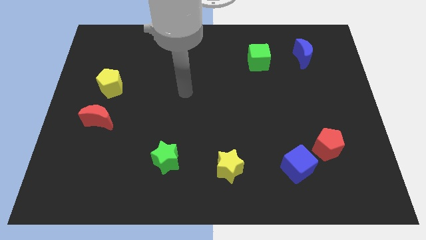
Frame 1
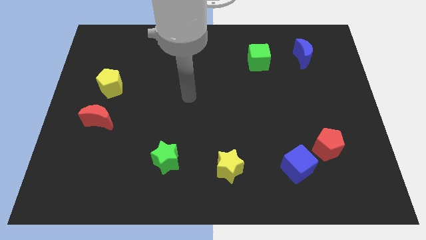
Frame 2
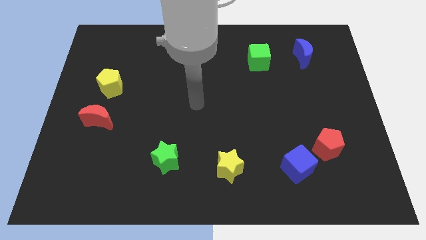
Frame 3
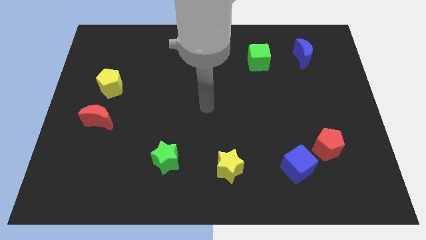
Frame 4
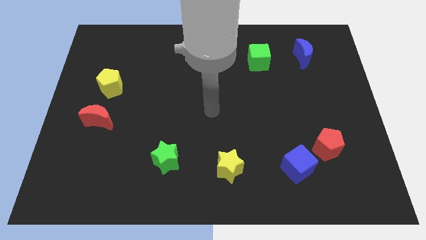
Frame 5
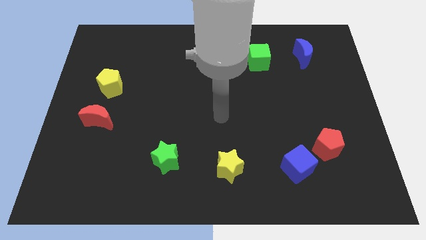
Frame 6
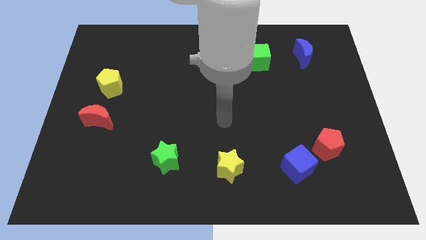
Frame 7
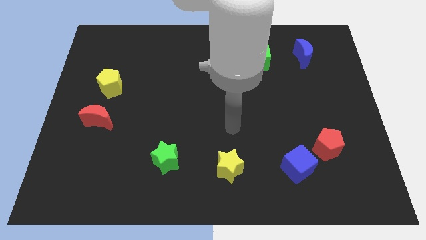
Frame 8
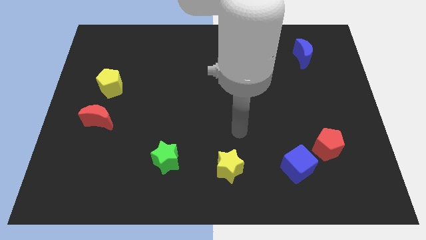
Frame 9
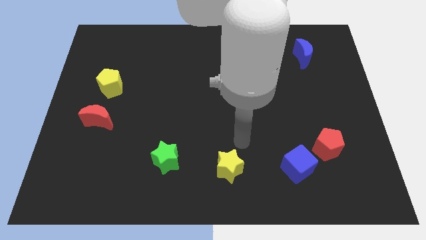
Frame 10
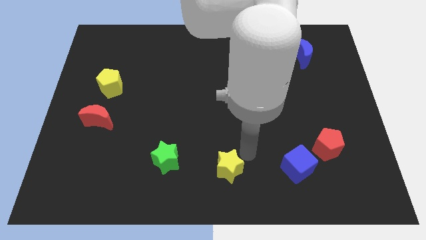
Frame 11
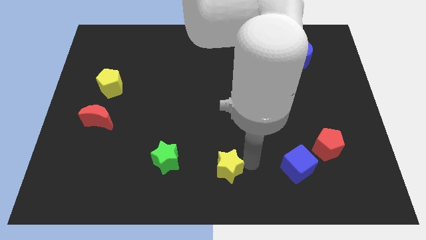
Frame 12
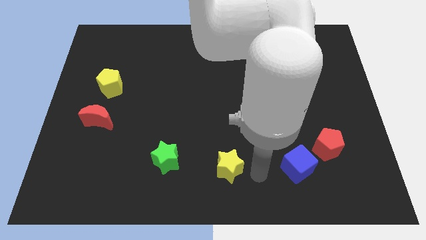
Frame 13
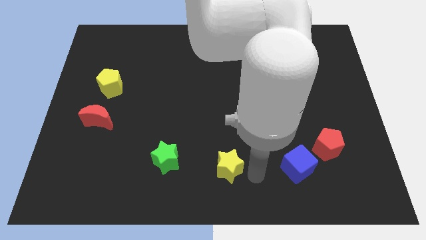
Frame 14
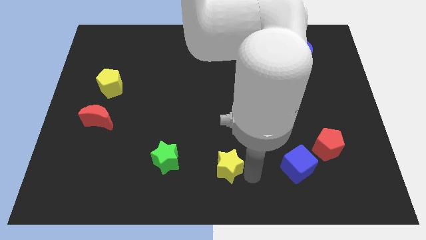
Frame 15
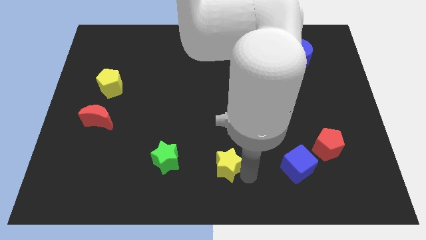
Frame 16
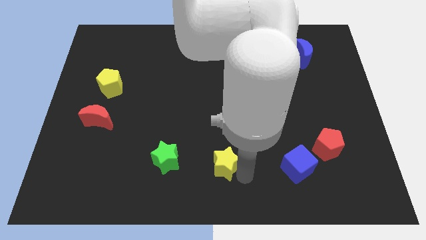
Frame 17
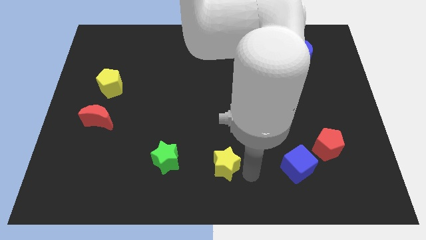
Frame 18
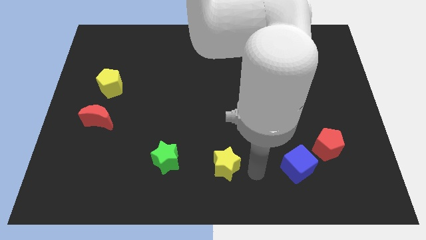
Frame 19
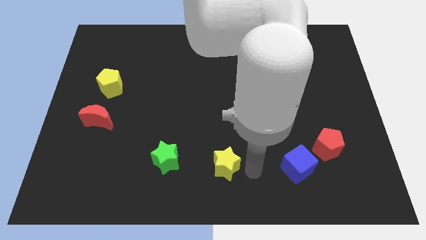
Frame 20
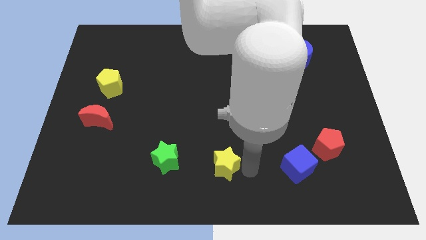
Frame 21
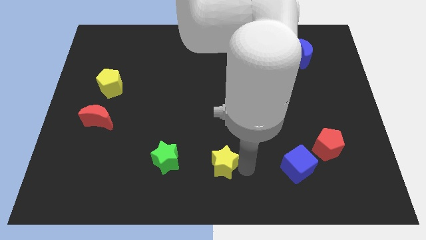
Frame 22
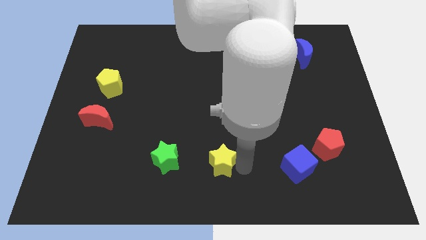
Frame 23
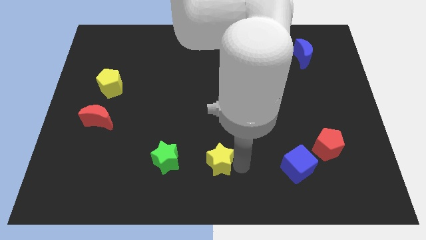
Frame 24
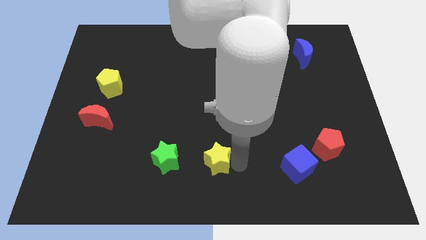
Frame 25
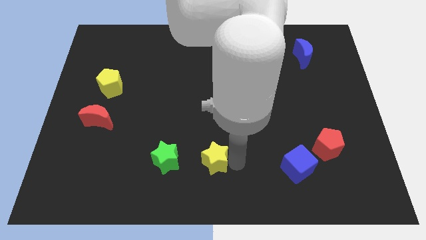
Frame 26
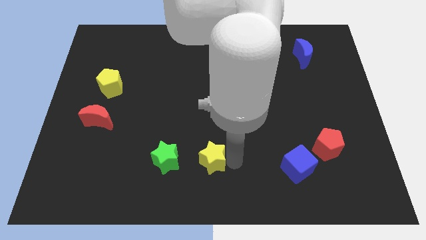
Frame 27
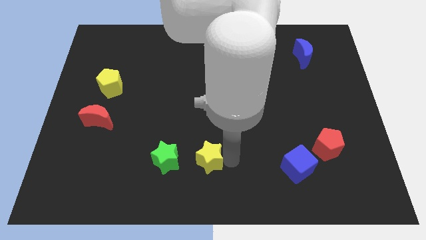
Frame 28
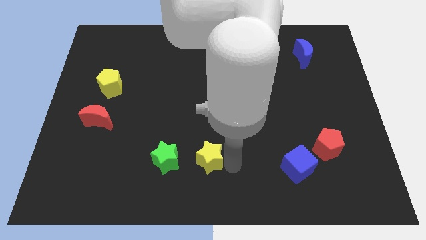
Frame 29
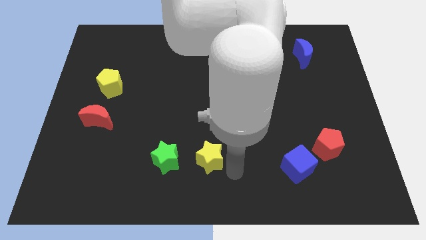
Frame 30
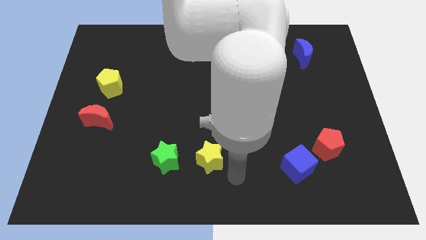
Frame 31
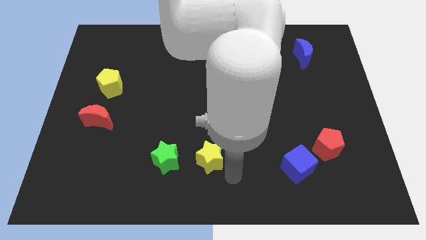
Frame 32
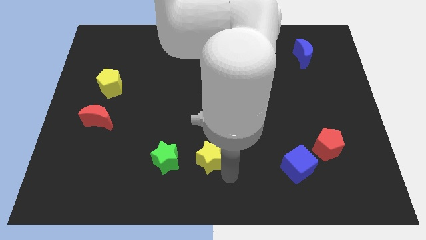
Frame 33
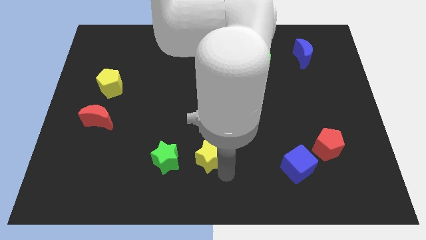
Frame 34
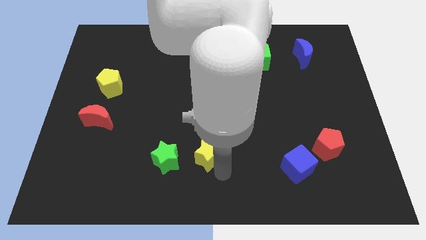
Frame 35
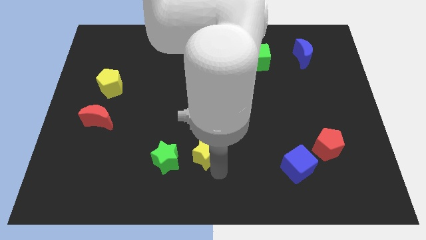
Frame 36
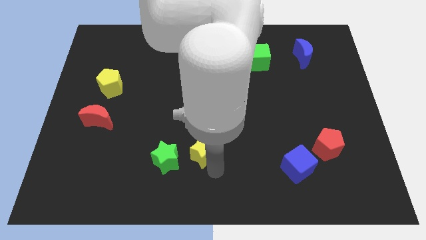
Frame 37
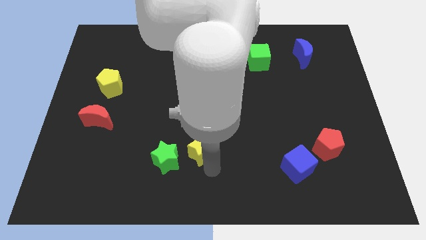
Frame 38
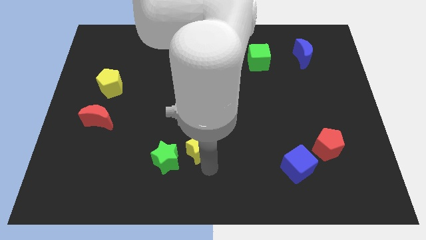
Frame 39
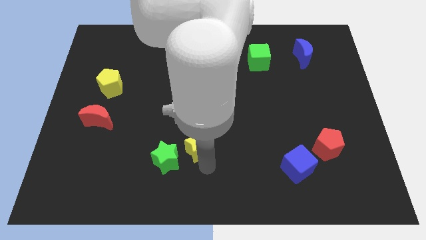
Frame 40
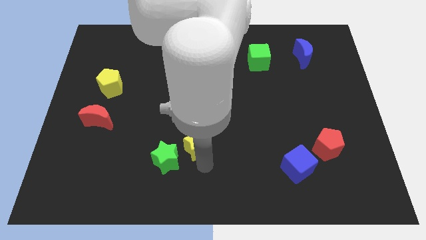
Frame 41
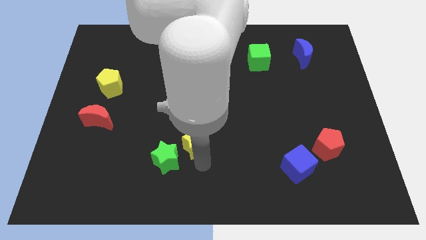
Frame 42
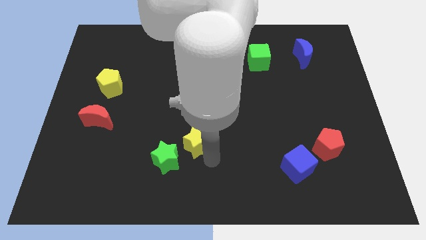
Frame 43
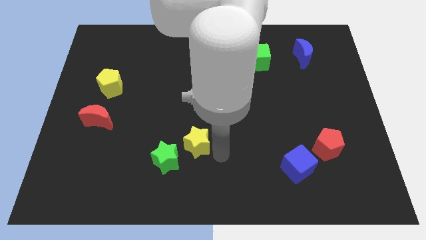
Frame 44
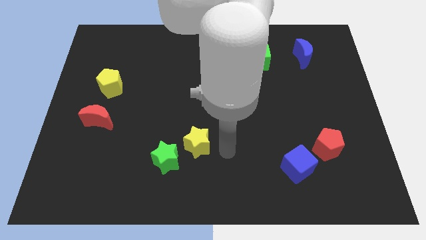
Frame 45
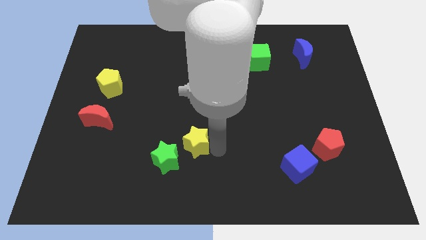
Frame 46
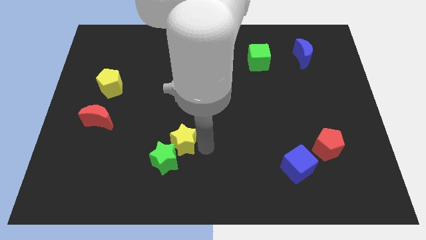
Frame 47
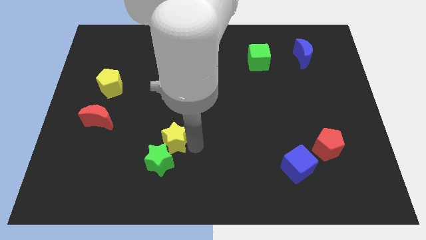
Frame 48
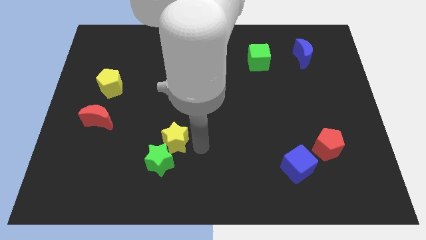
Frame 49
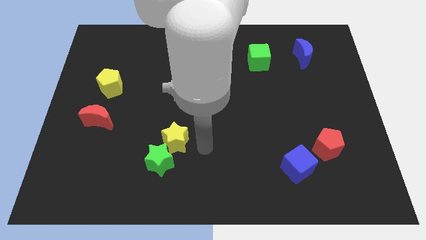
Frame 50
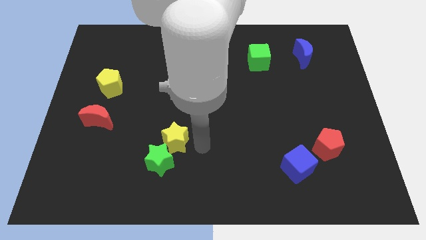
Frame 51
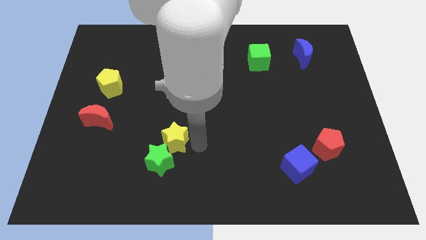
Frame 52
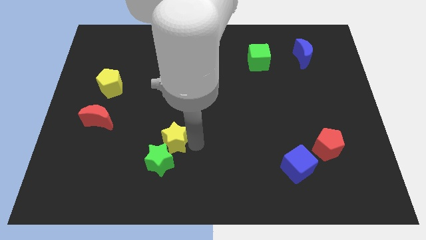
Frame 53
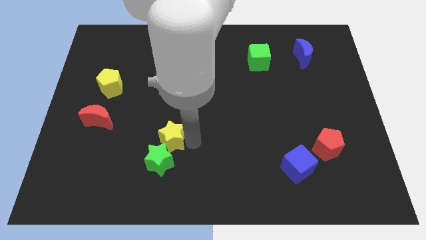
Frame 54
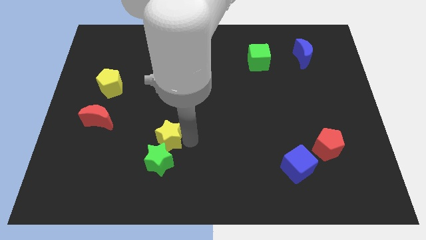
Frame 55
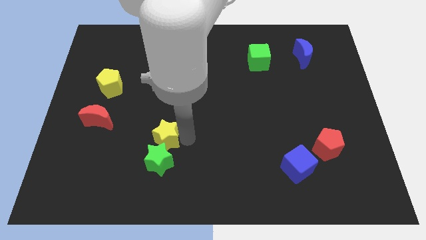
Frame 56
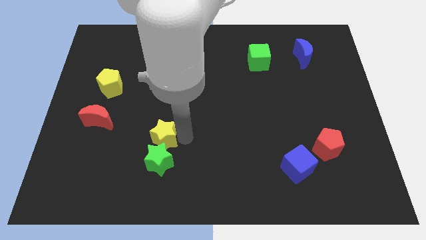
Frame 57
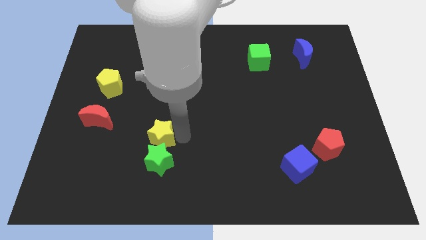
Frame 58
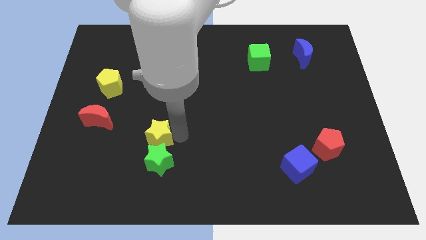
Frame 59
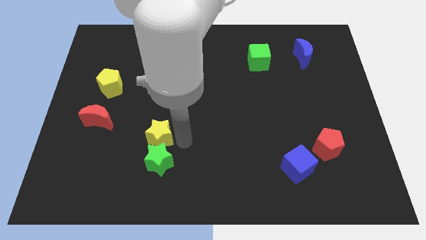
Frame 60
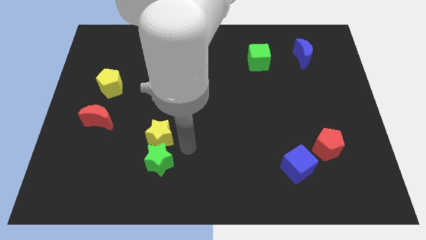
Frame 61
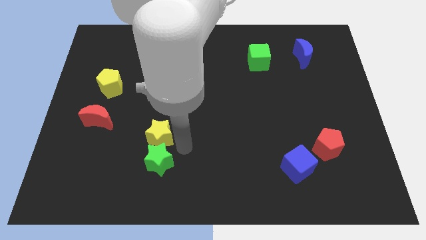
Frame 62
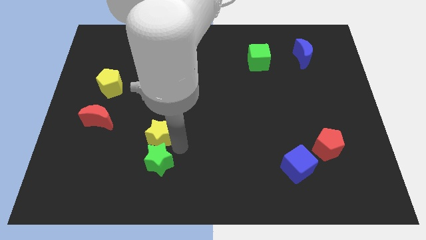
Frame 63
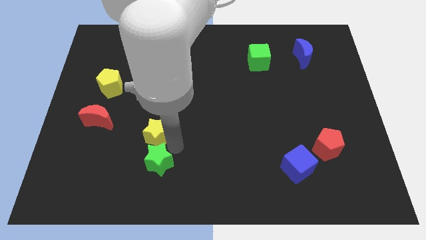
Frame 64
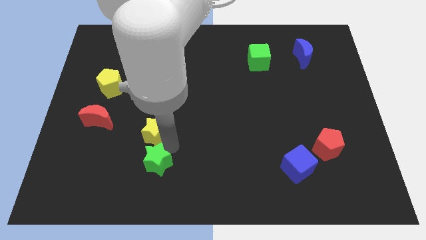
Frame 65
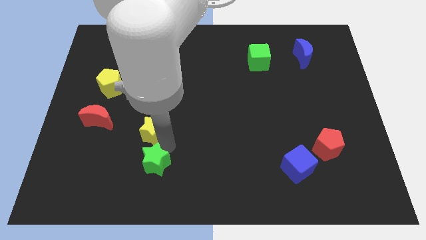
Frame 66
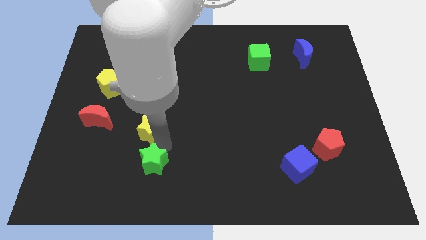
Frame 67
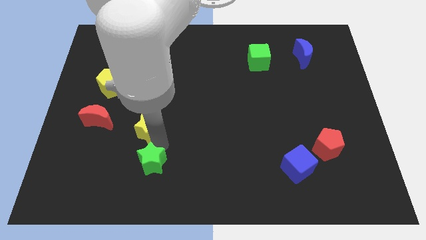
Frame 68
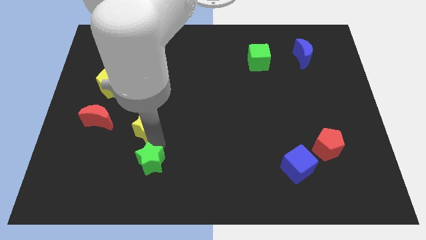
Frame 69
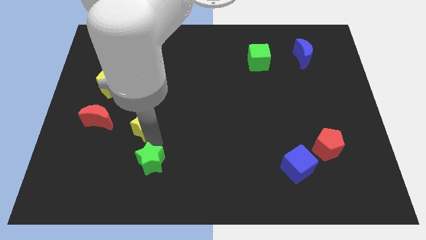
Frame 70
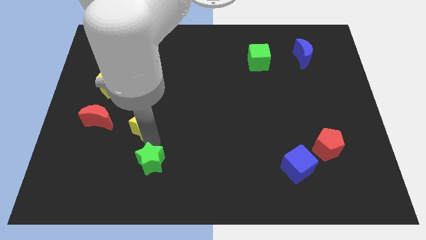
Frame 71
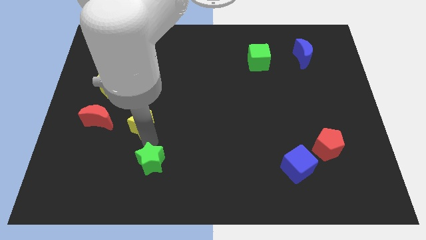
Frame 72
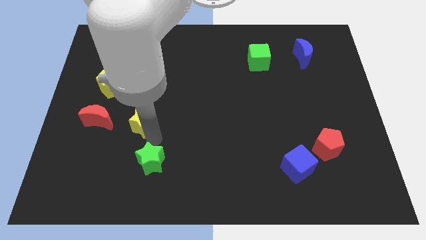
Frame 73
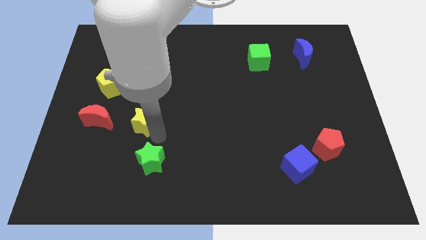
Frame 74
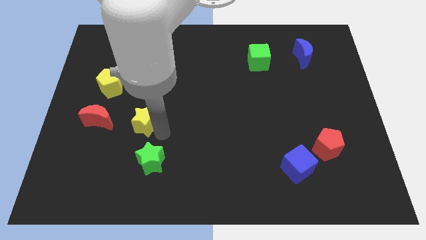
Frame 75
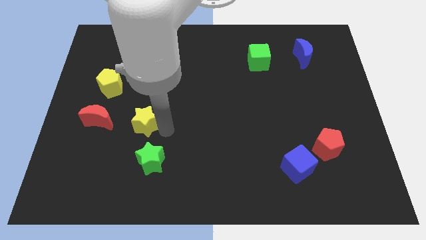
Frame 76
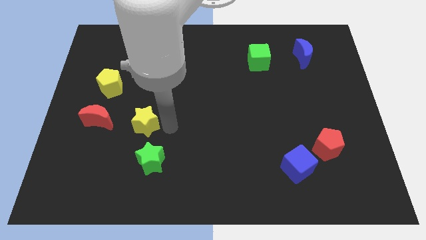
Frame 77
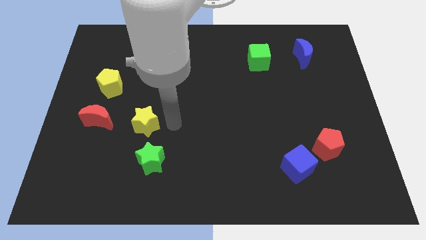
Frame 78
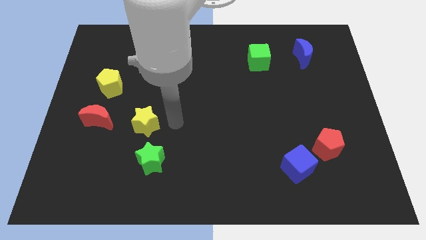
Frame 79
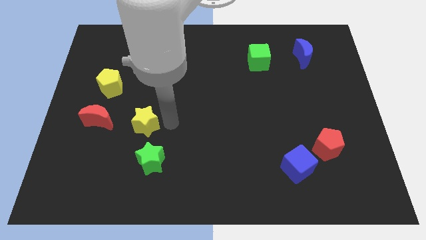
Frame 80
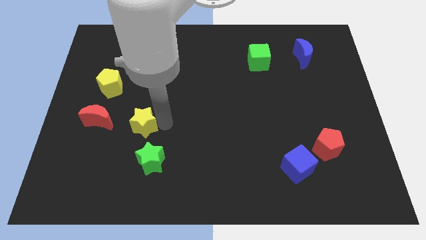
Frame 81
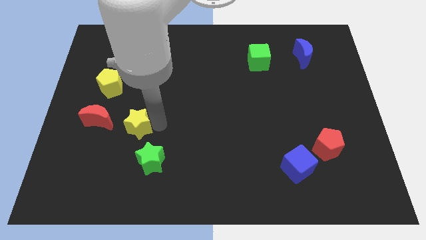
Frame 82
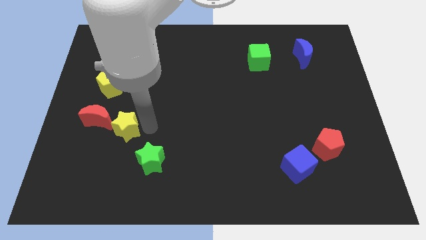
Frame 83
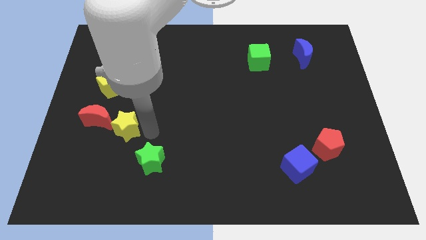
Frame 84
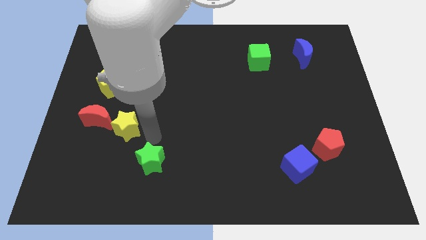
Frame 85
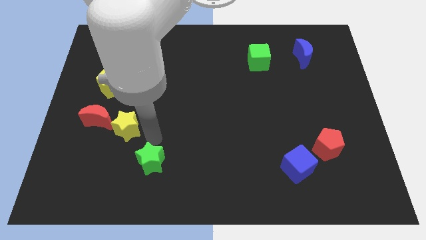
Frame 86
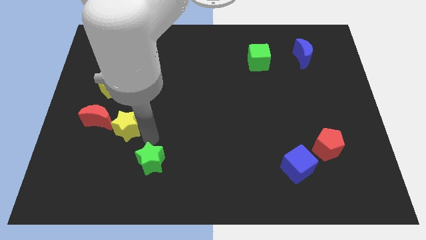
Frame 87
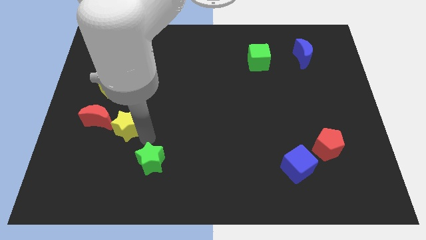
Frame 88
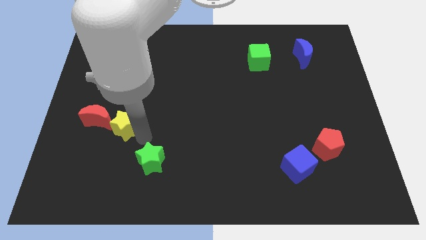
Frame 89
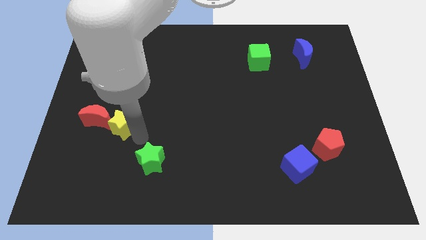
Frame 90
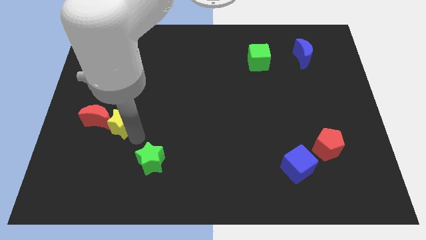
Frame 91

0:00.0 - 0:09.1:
push the yellow star to the red moon
